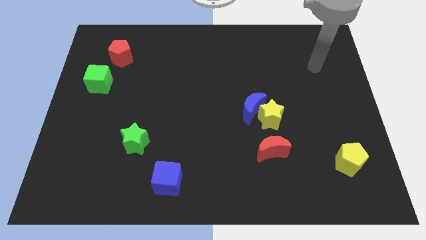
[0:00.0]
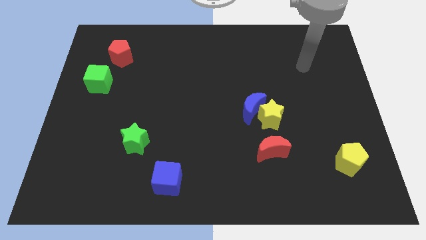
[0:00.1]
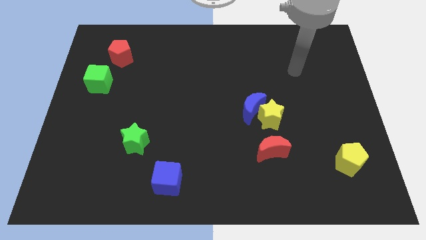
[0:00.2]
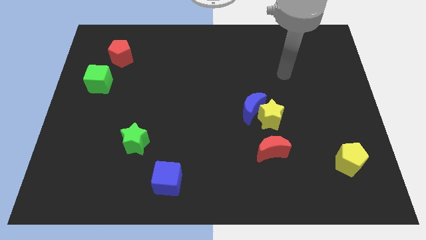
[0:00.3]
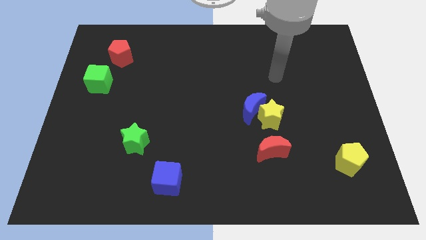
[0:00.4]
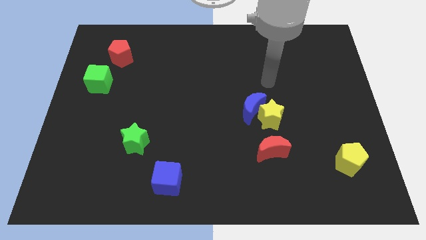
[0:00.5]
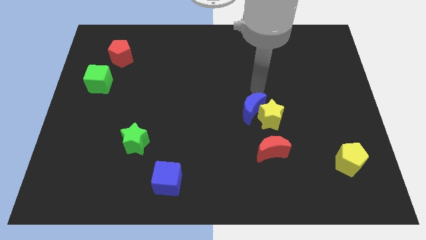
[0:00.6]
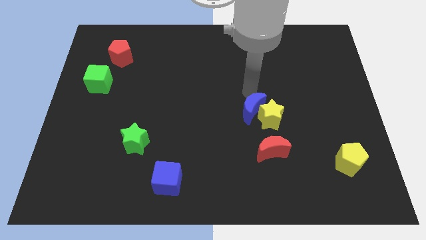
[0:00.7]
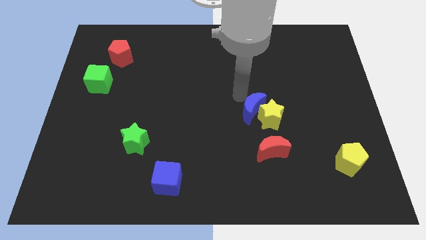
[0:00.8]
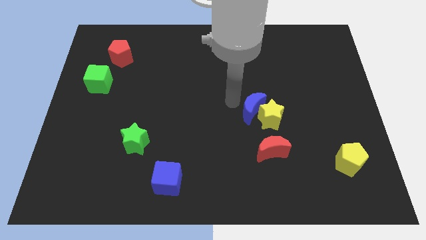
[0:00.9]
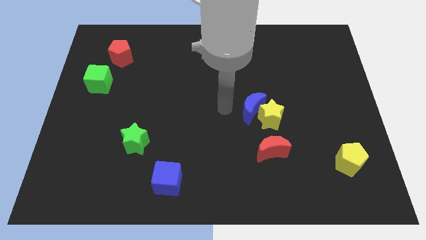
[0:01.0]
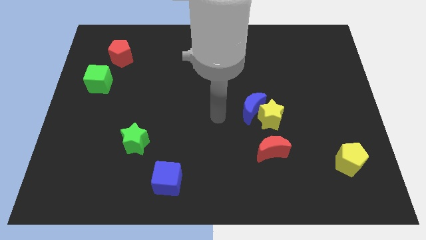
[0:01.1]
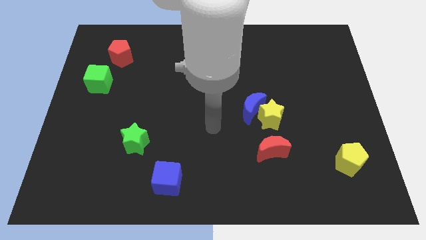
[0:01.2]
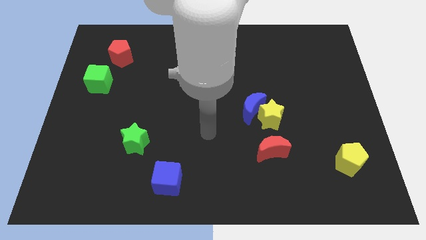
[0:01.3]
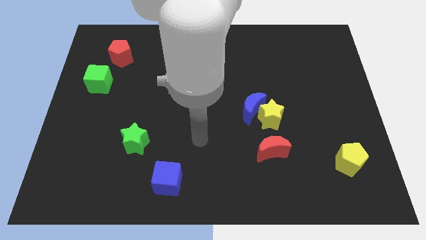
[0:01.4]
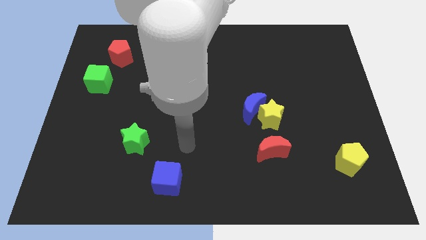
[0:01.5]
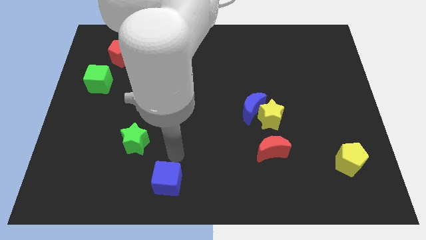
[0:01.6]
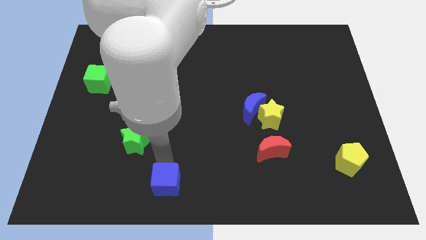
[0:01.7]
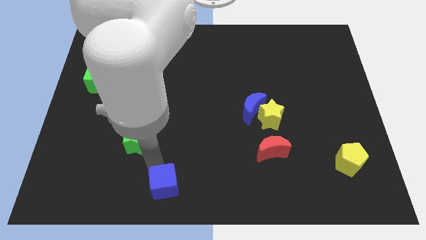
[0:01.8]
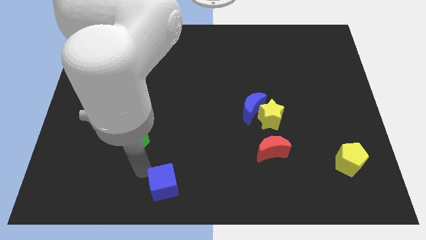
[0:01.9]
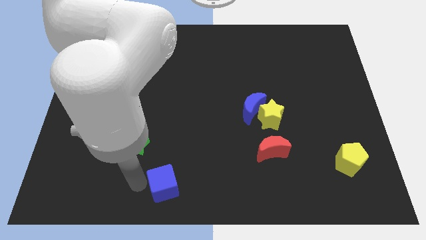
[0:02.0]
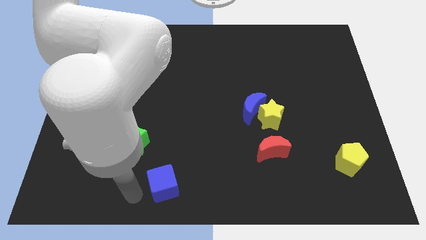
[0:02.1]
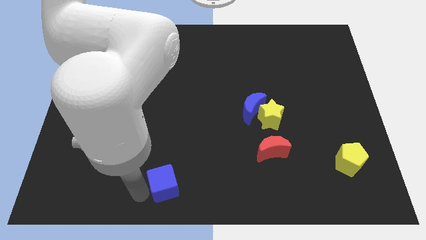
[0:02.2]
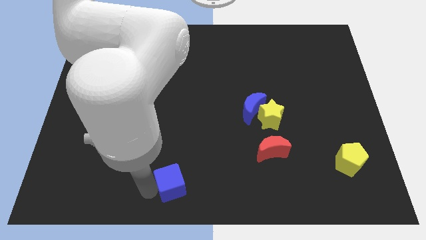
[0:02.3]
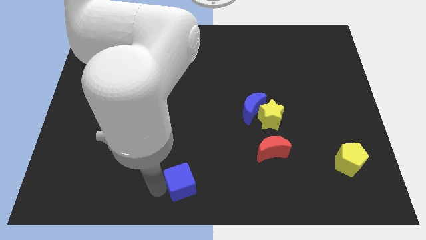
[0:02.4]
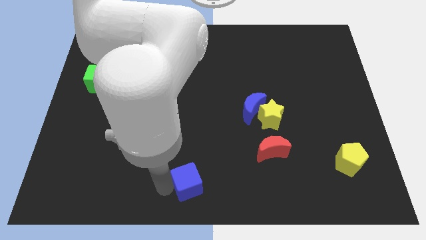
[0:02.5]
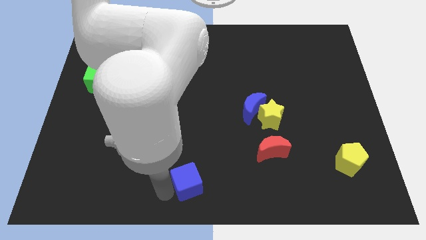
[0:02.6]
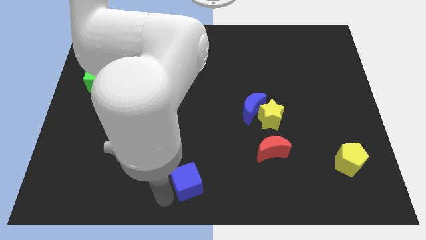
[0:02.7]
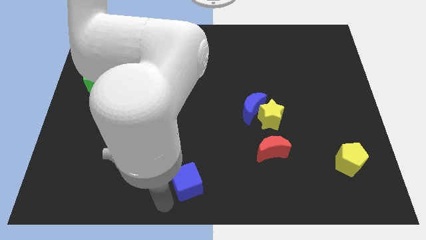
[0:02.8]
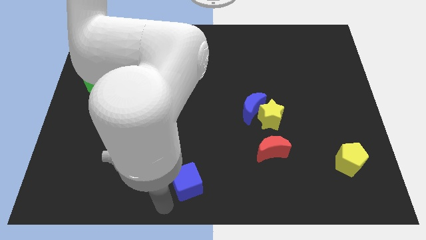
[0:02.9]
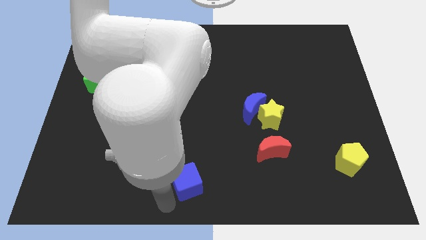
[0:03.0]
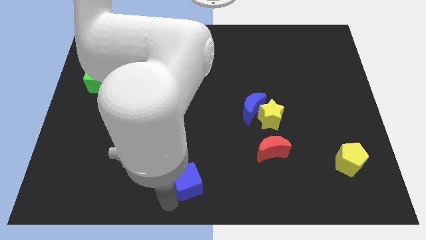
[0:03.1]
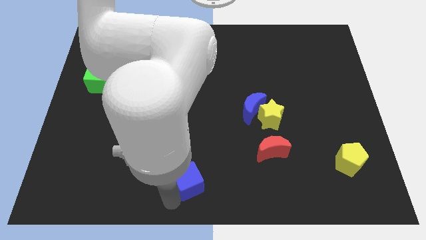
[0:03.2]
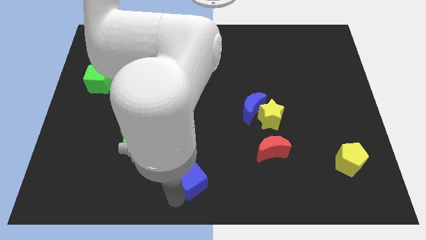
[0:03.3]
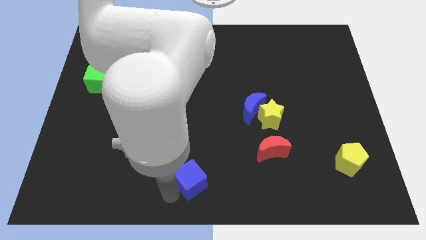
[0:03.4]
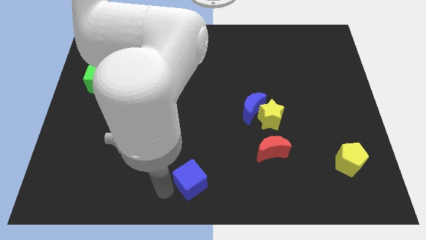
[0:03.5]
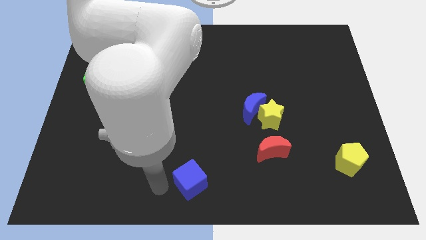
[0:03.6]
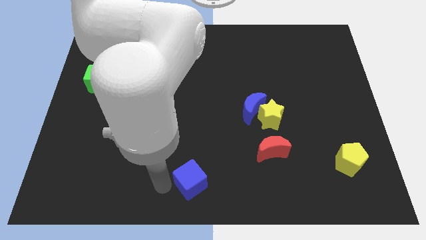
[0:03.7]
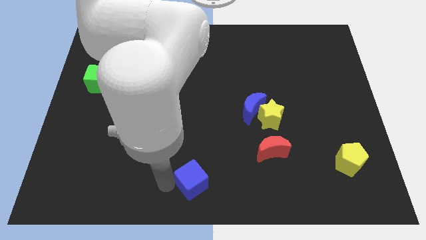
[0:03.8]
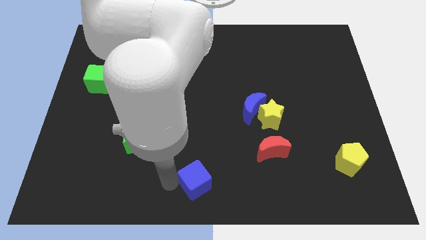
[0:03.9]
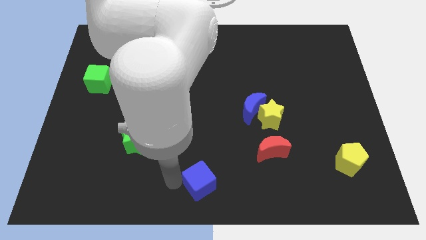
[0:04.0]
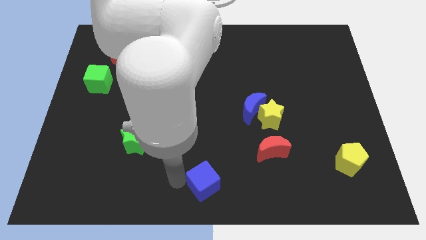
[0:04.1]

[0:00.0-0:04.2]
slightly move the blue cube right

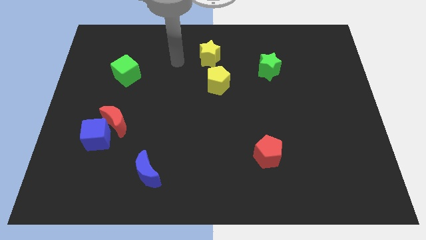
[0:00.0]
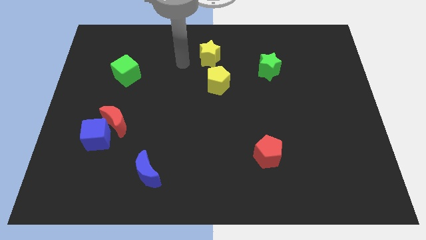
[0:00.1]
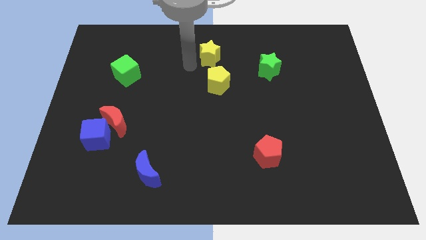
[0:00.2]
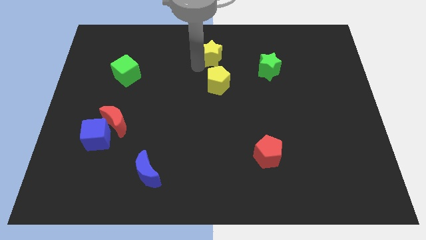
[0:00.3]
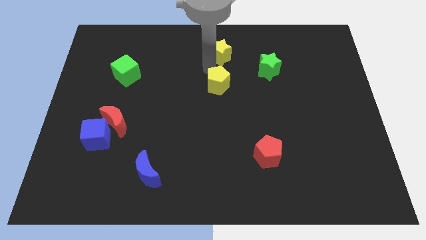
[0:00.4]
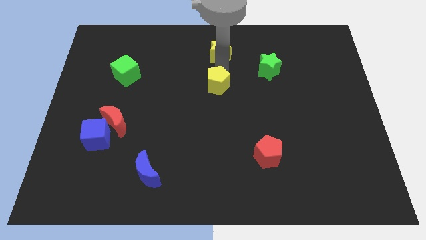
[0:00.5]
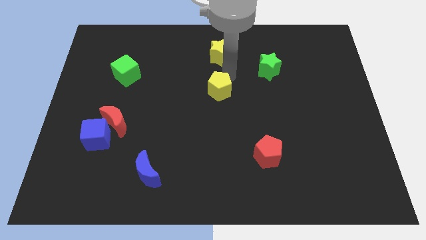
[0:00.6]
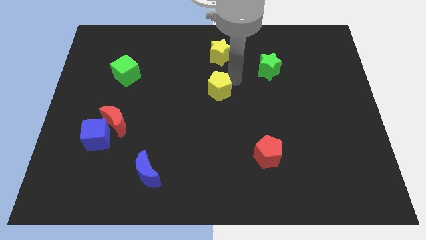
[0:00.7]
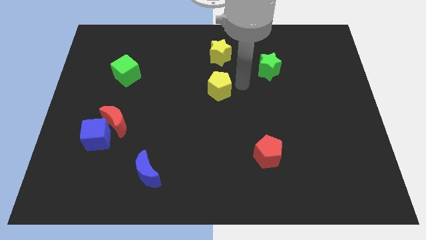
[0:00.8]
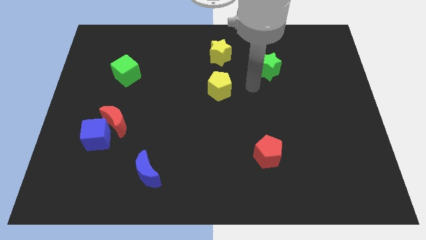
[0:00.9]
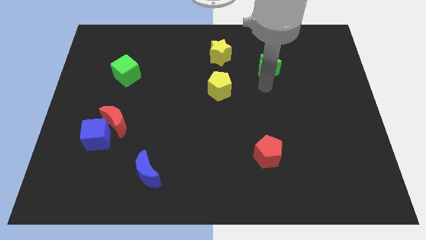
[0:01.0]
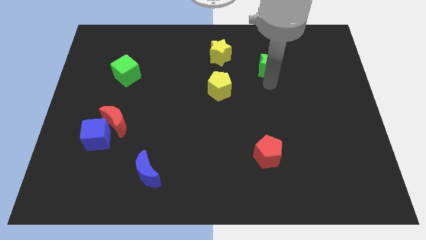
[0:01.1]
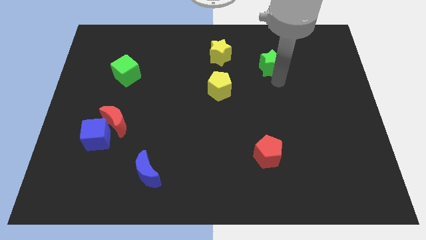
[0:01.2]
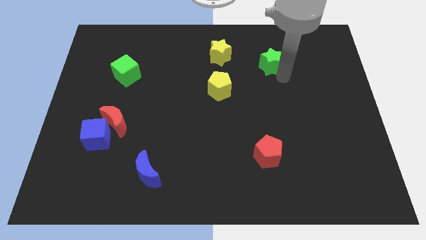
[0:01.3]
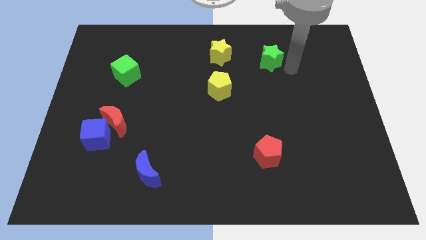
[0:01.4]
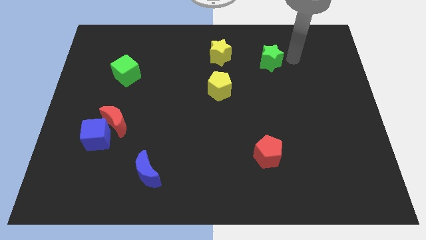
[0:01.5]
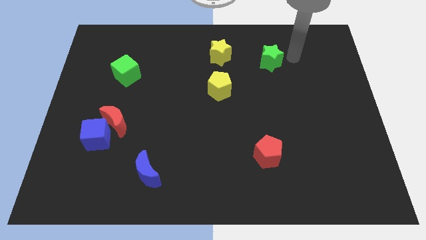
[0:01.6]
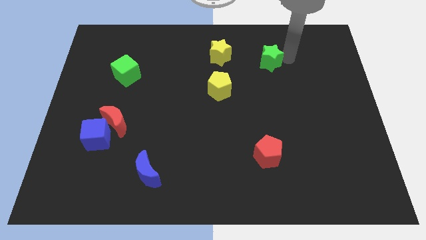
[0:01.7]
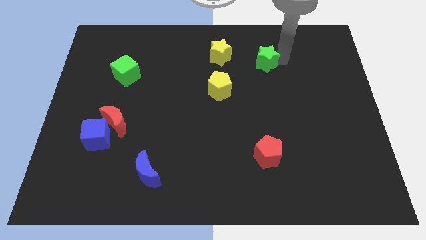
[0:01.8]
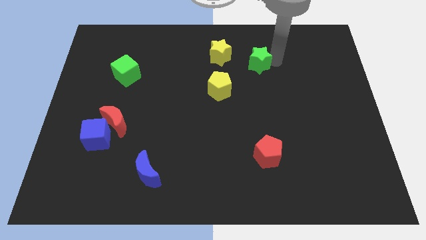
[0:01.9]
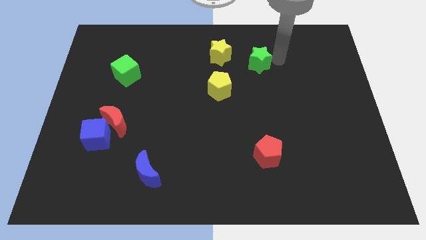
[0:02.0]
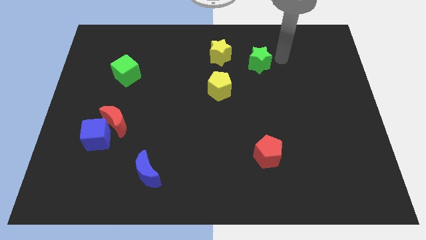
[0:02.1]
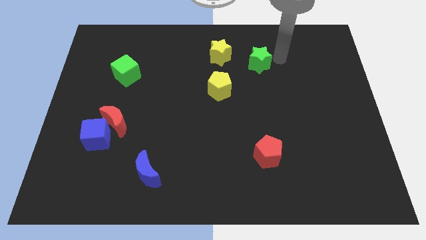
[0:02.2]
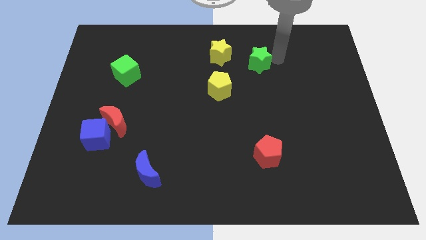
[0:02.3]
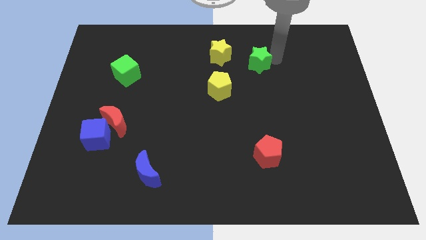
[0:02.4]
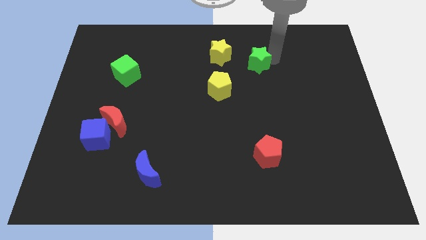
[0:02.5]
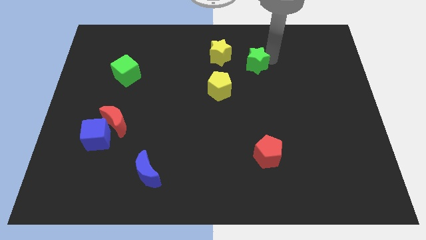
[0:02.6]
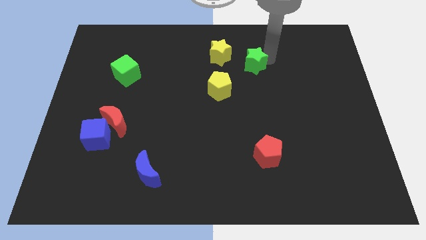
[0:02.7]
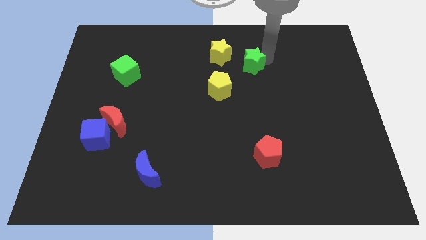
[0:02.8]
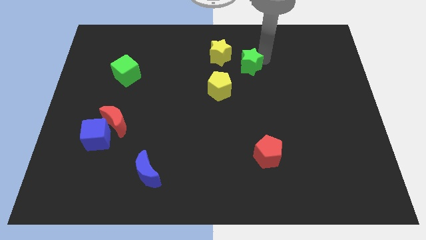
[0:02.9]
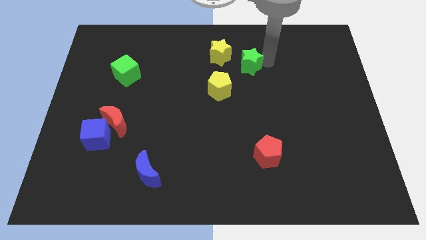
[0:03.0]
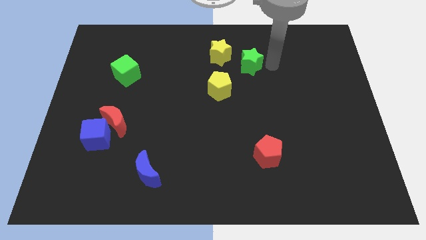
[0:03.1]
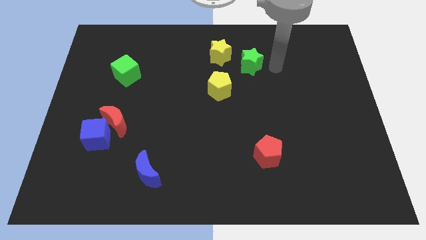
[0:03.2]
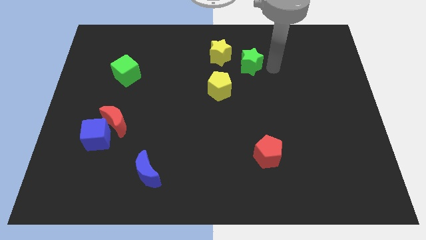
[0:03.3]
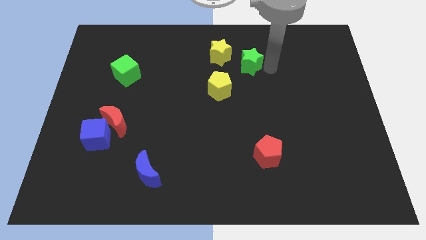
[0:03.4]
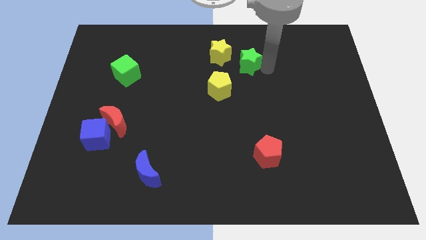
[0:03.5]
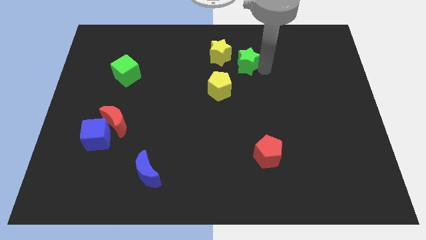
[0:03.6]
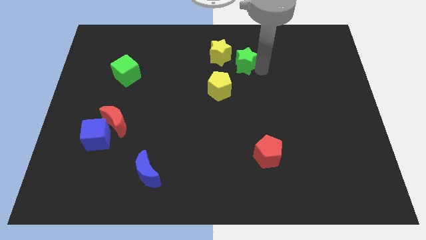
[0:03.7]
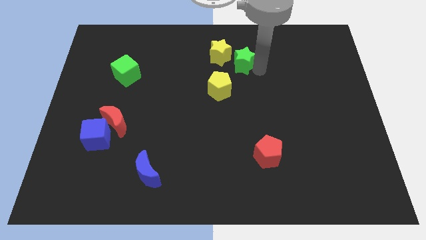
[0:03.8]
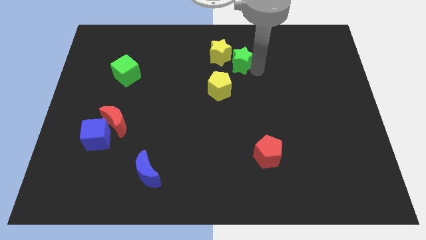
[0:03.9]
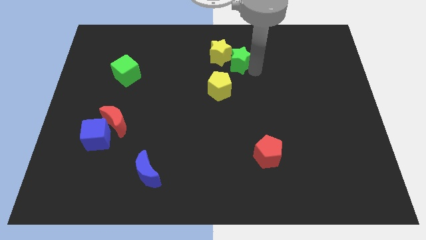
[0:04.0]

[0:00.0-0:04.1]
move the green star a bit left

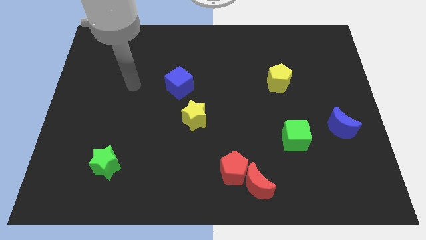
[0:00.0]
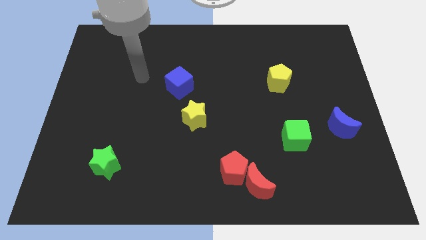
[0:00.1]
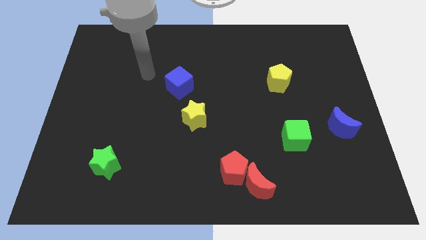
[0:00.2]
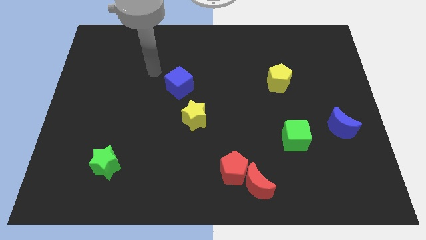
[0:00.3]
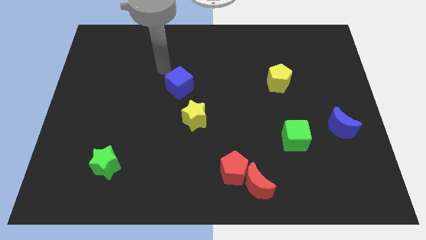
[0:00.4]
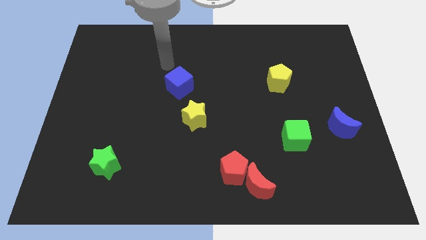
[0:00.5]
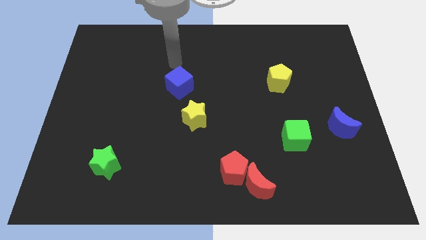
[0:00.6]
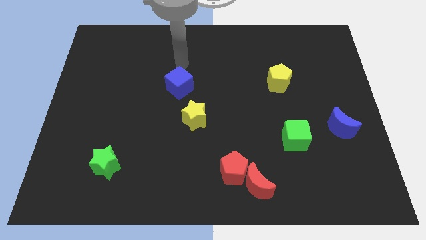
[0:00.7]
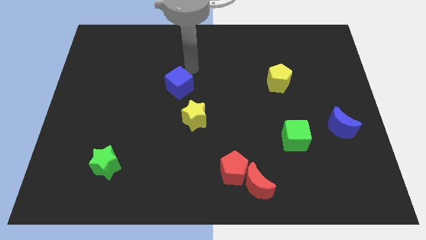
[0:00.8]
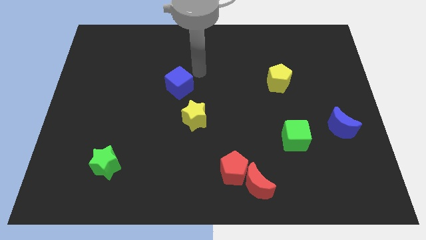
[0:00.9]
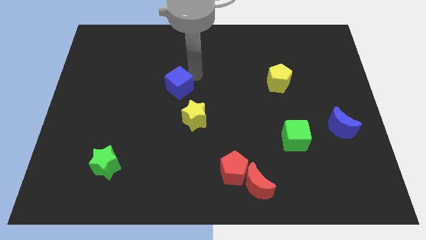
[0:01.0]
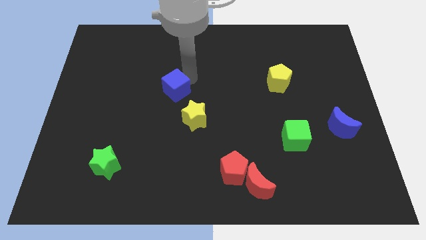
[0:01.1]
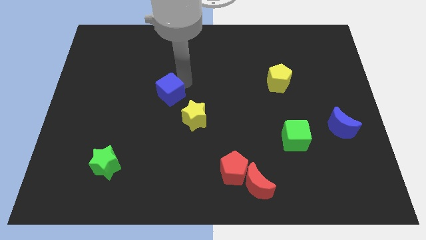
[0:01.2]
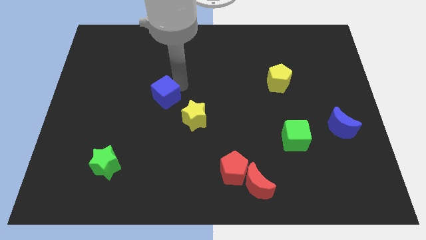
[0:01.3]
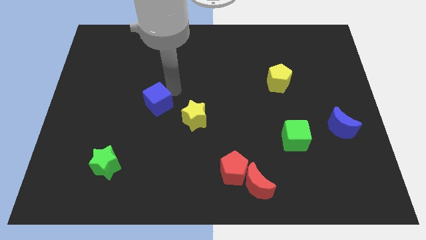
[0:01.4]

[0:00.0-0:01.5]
slightly move the blue cube diagonally downwards and to the left
